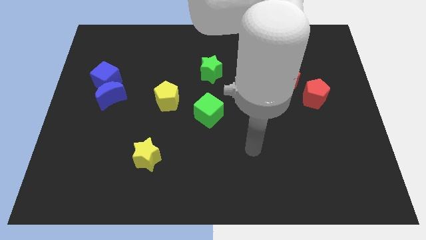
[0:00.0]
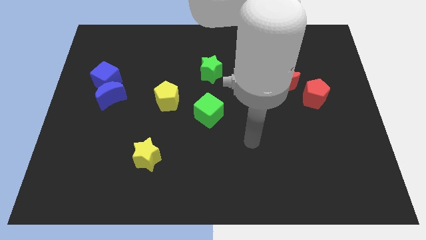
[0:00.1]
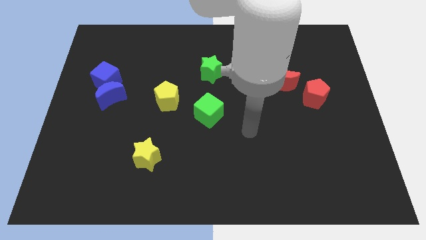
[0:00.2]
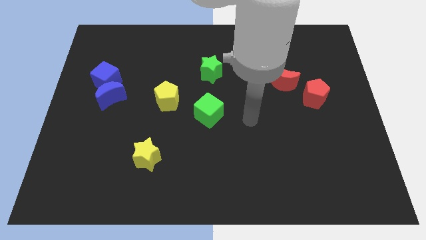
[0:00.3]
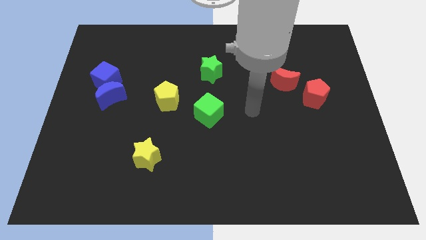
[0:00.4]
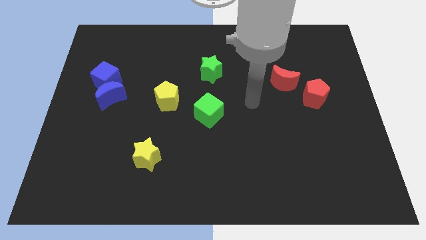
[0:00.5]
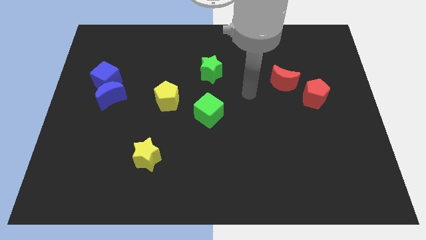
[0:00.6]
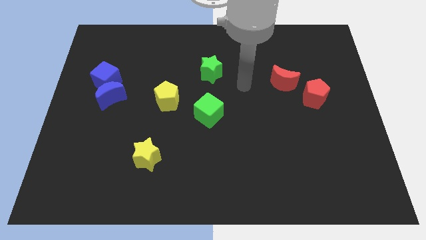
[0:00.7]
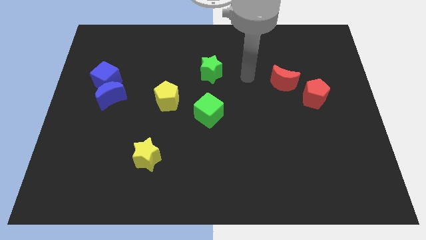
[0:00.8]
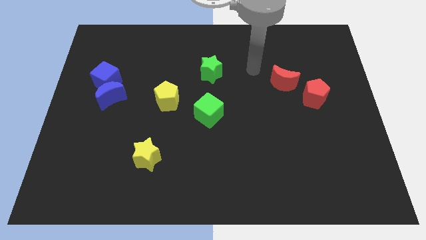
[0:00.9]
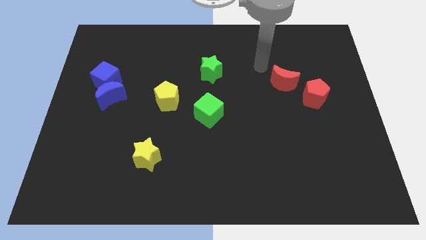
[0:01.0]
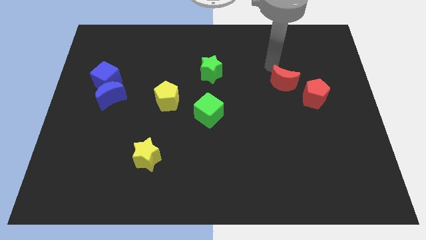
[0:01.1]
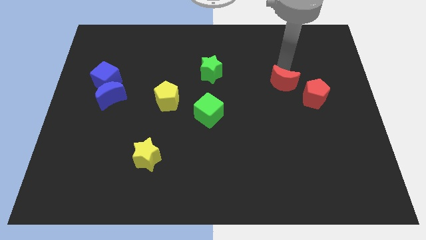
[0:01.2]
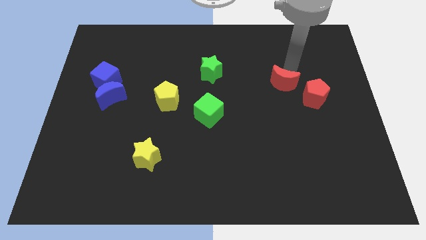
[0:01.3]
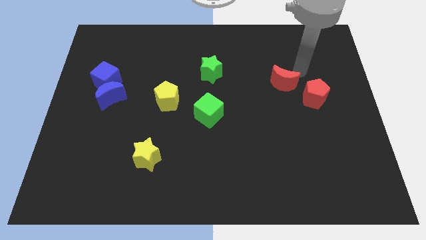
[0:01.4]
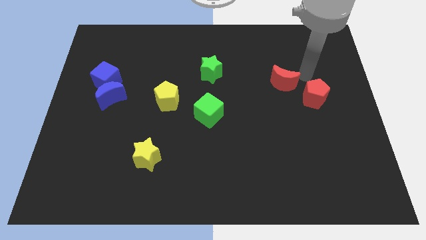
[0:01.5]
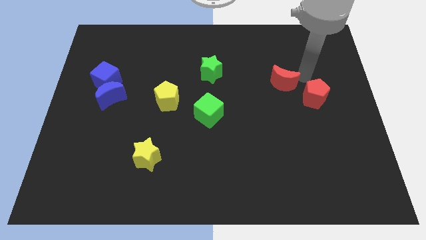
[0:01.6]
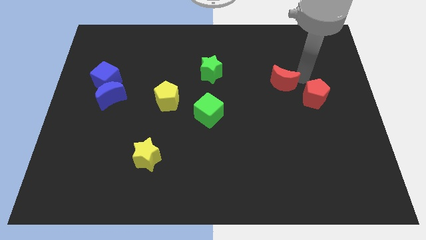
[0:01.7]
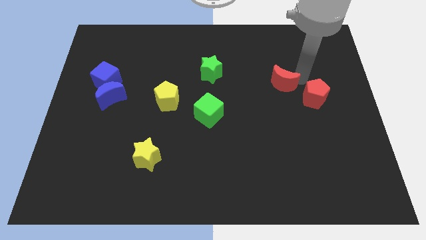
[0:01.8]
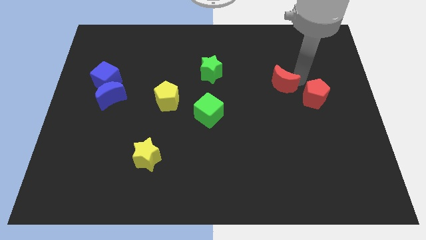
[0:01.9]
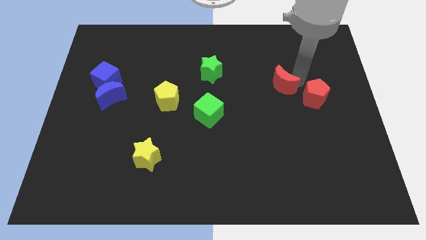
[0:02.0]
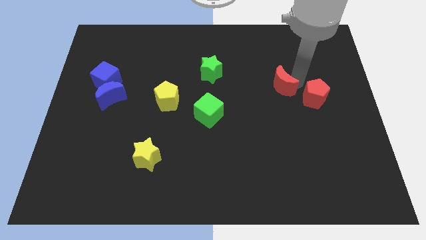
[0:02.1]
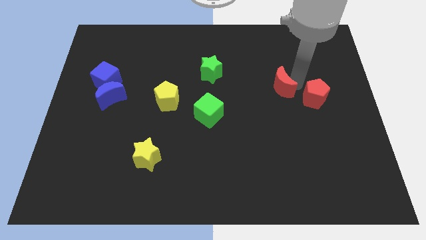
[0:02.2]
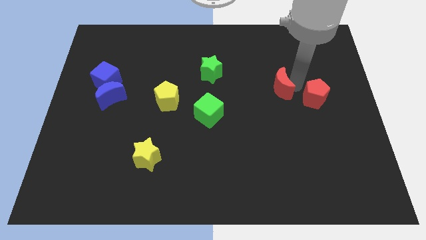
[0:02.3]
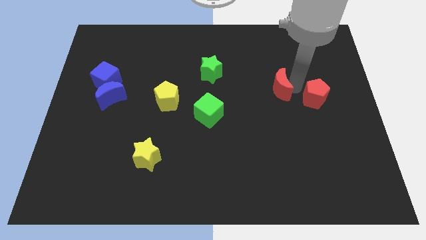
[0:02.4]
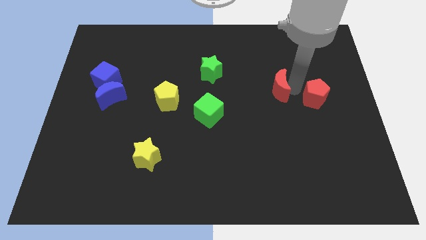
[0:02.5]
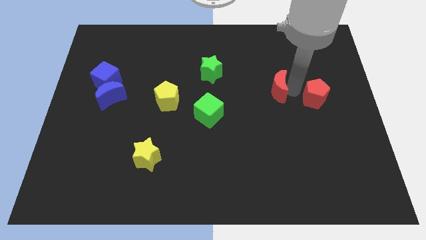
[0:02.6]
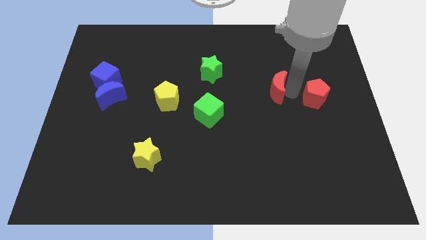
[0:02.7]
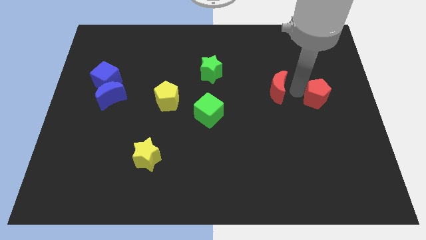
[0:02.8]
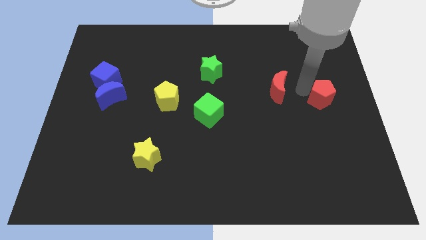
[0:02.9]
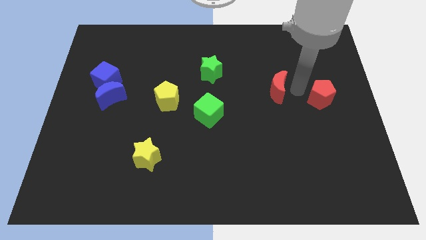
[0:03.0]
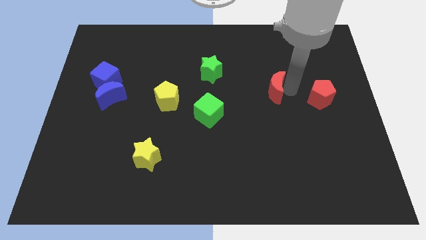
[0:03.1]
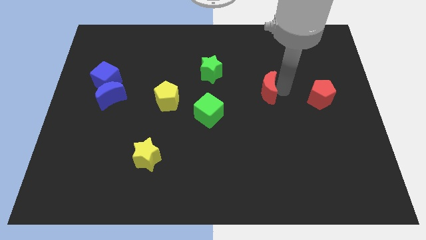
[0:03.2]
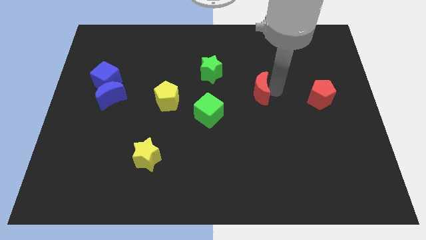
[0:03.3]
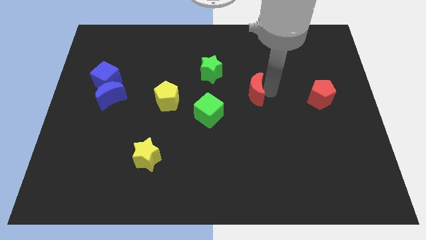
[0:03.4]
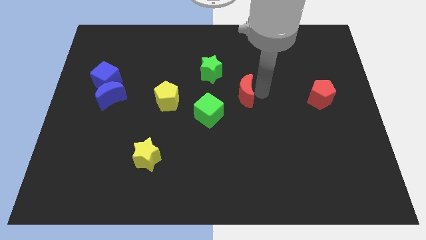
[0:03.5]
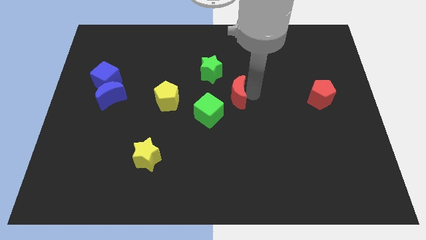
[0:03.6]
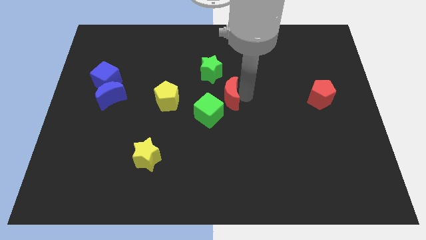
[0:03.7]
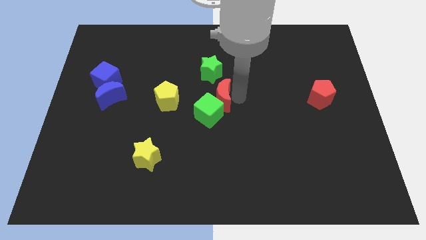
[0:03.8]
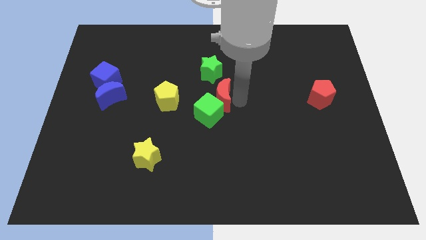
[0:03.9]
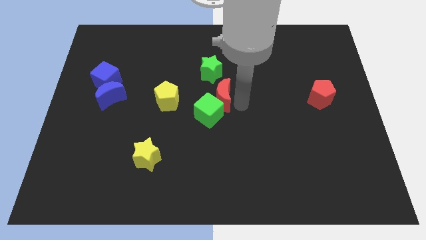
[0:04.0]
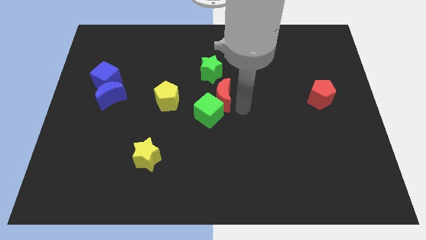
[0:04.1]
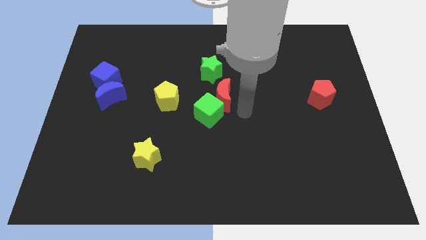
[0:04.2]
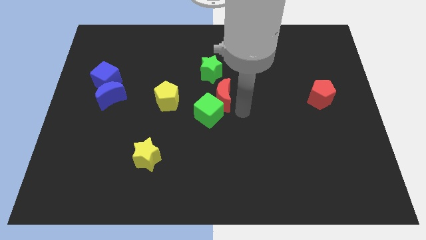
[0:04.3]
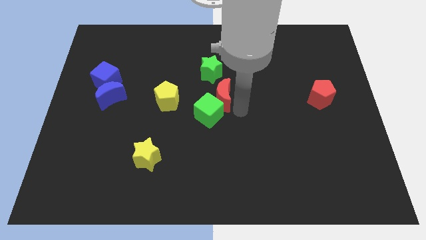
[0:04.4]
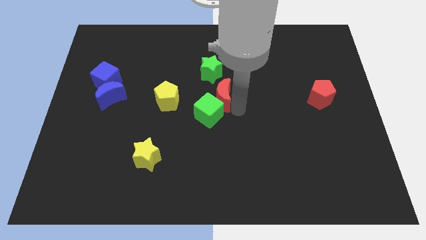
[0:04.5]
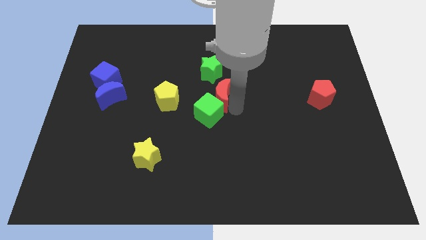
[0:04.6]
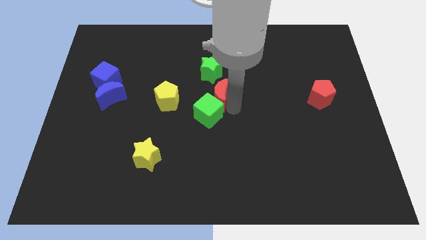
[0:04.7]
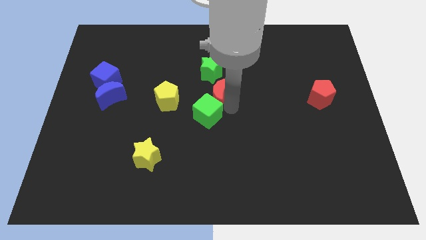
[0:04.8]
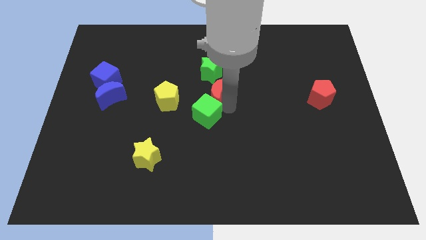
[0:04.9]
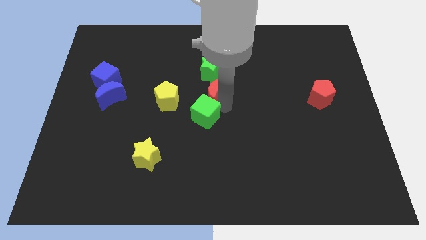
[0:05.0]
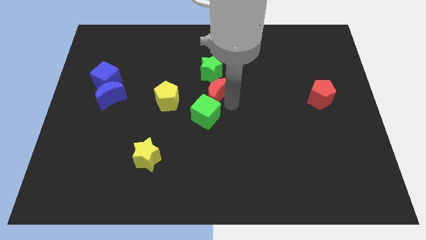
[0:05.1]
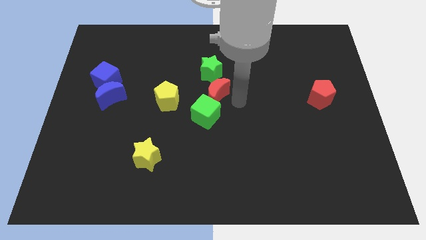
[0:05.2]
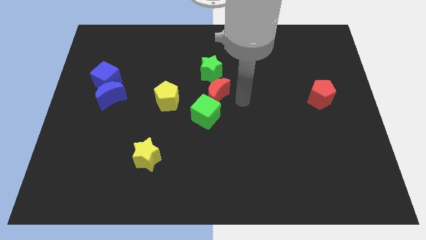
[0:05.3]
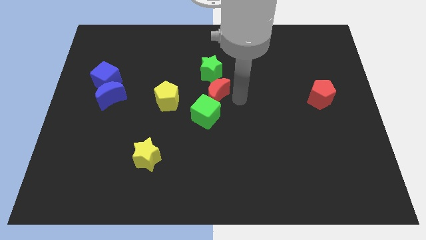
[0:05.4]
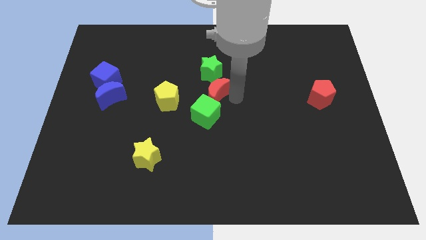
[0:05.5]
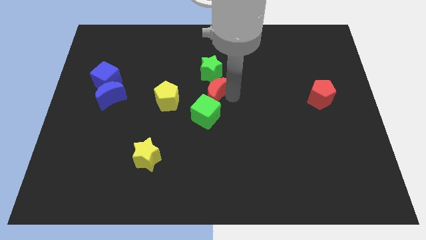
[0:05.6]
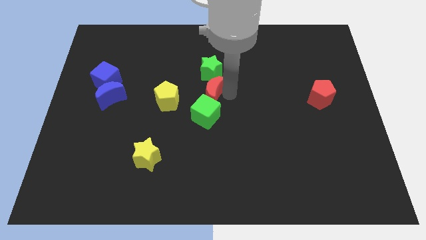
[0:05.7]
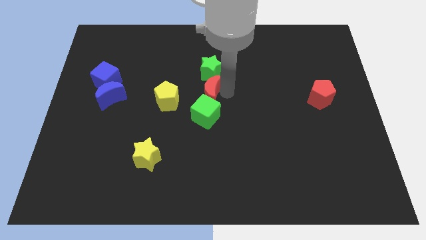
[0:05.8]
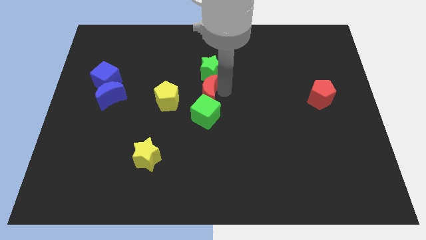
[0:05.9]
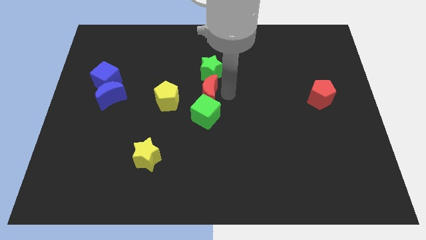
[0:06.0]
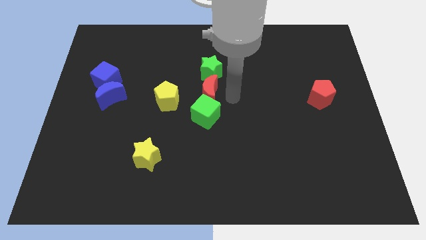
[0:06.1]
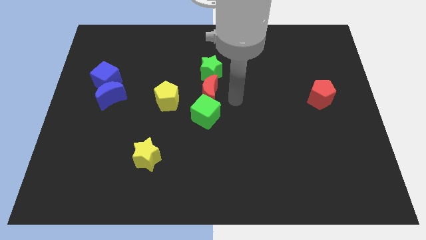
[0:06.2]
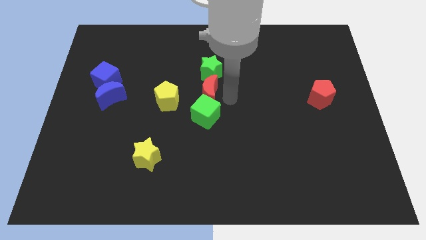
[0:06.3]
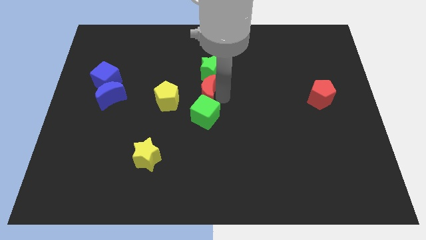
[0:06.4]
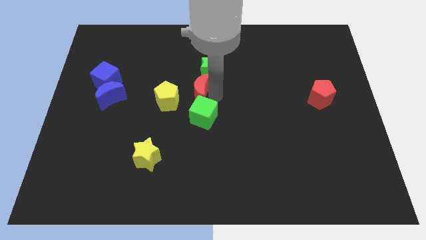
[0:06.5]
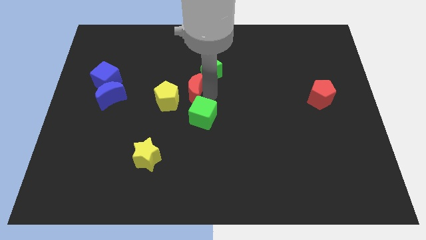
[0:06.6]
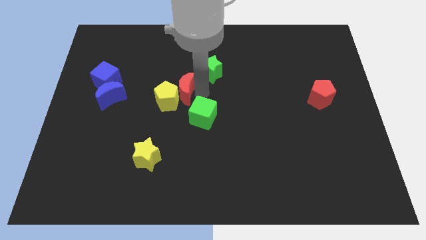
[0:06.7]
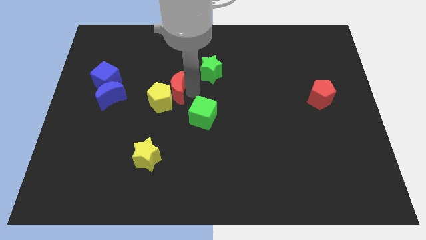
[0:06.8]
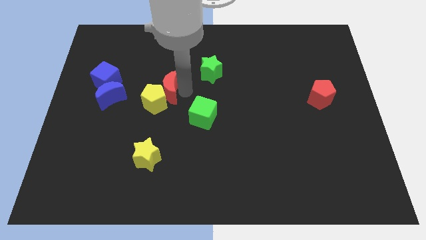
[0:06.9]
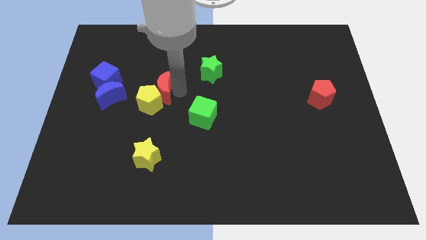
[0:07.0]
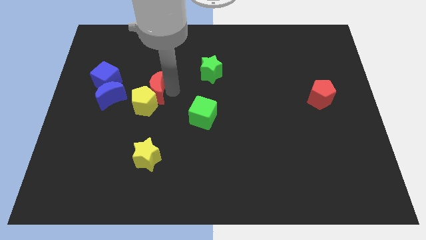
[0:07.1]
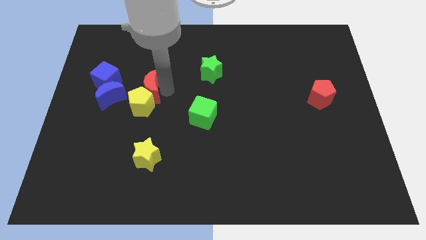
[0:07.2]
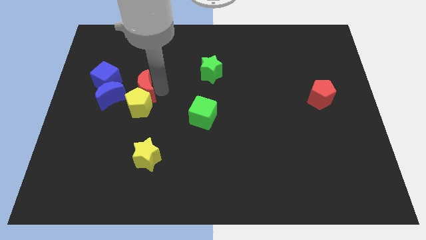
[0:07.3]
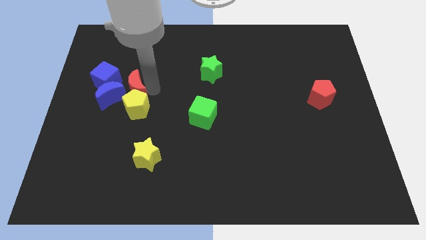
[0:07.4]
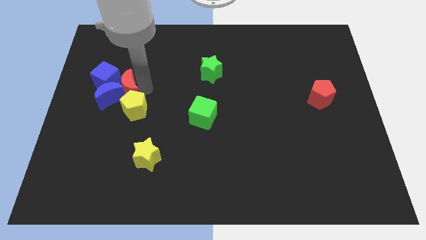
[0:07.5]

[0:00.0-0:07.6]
move the red moon to the blue moon
